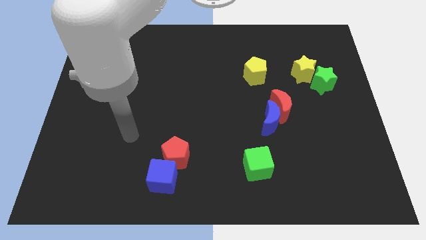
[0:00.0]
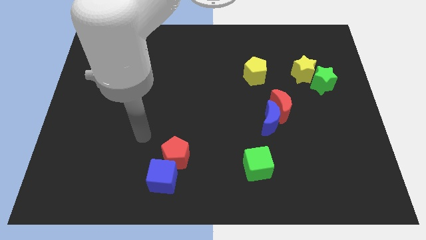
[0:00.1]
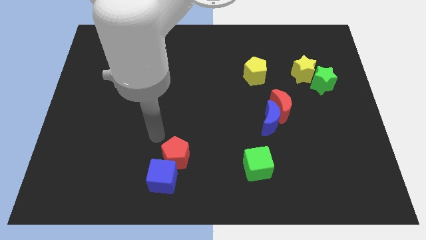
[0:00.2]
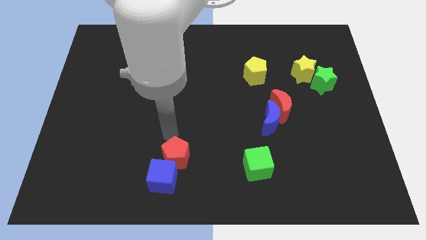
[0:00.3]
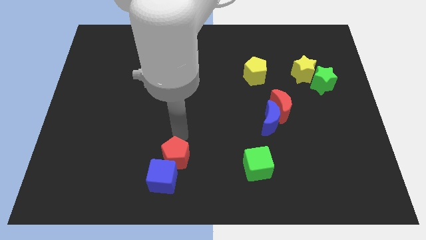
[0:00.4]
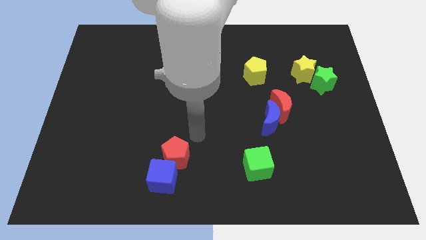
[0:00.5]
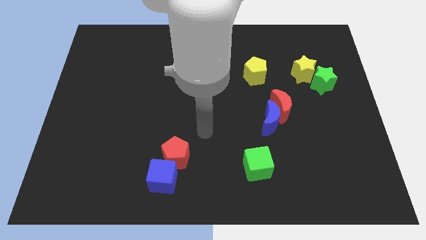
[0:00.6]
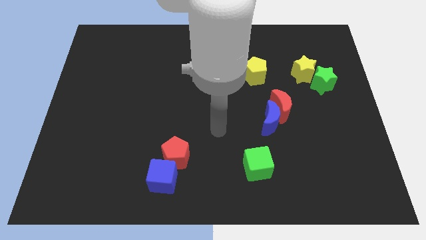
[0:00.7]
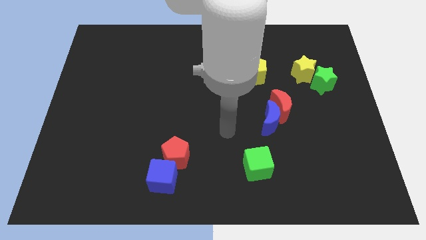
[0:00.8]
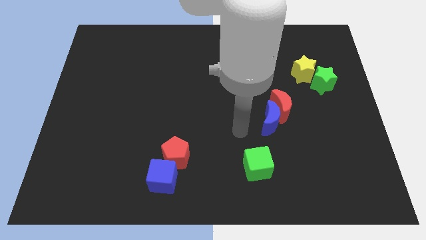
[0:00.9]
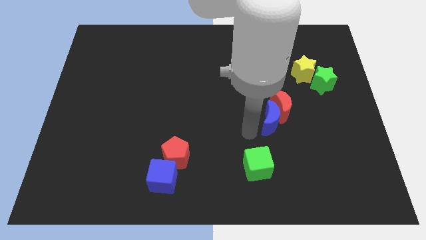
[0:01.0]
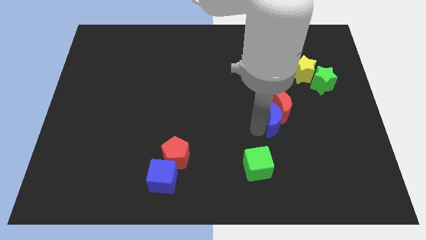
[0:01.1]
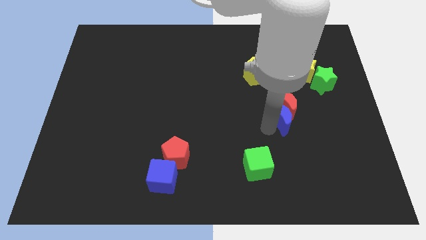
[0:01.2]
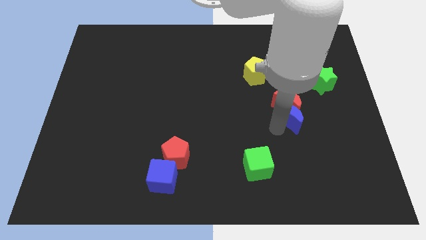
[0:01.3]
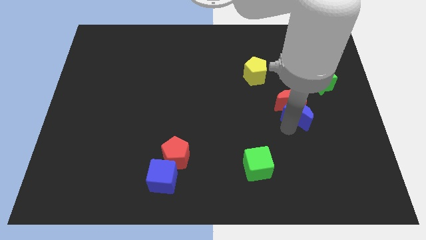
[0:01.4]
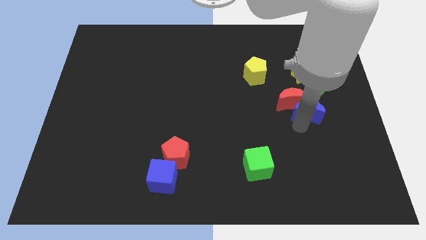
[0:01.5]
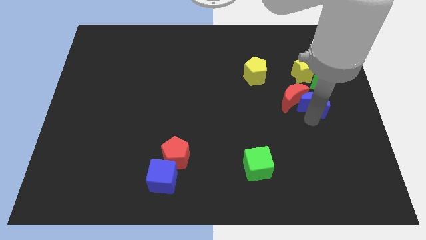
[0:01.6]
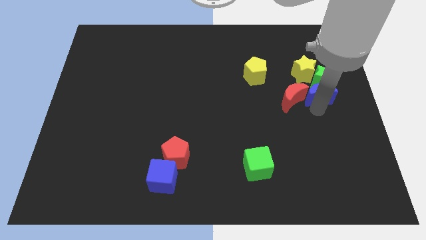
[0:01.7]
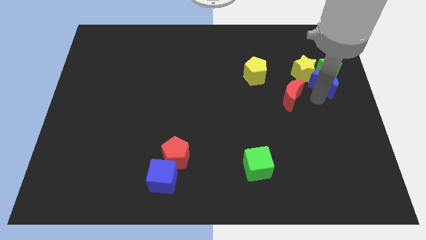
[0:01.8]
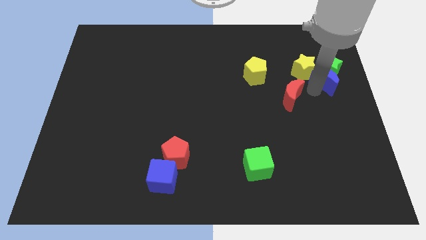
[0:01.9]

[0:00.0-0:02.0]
move the red moon away from the blue moon

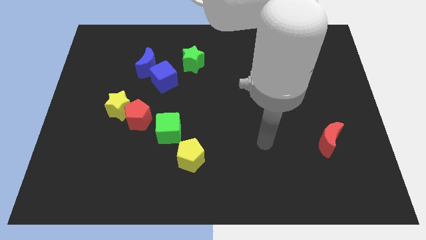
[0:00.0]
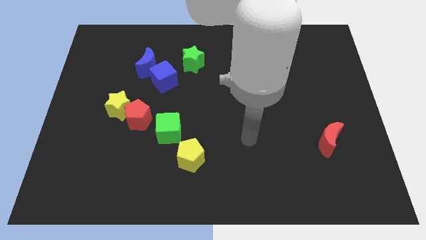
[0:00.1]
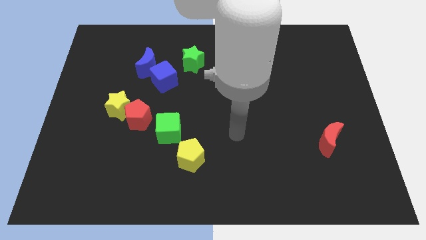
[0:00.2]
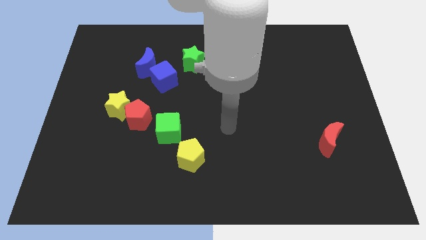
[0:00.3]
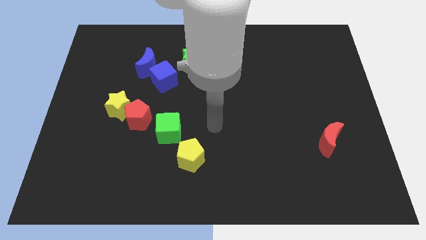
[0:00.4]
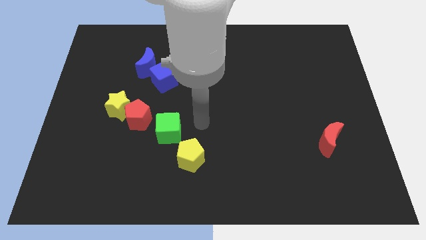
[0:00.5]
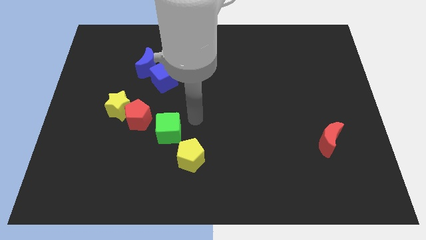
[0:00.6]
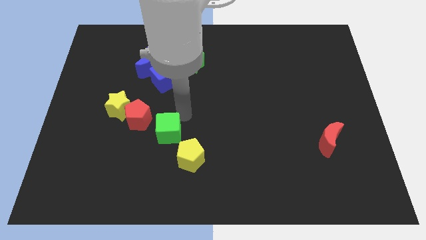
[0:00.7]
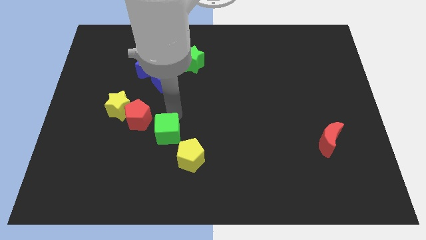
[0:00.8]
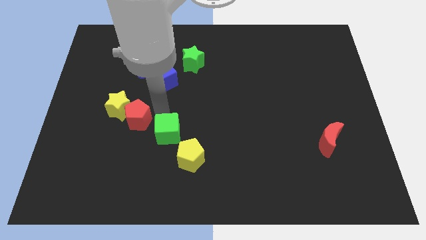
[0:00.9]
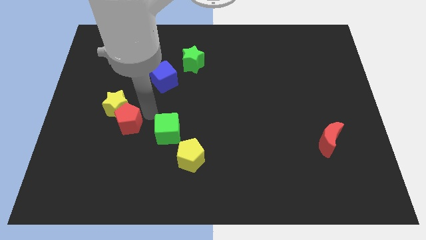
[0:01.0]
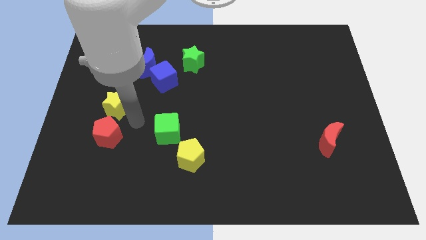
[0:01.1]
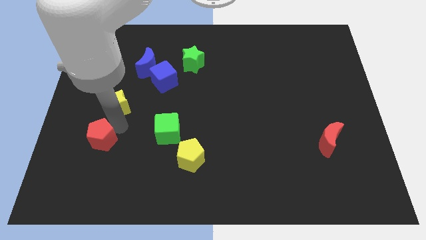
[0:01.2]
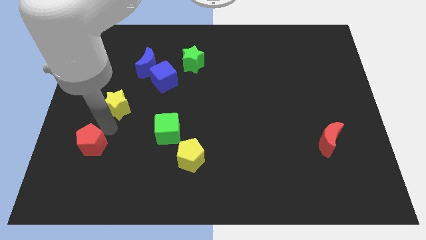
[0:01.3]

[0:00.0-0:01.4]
separate the yellow star from the red pentagon

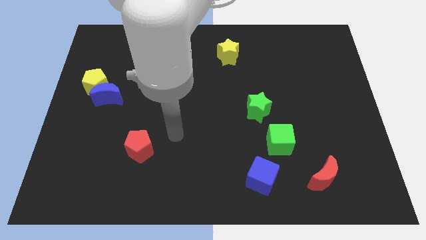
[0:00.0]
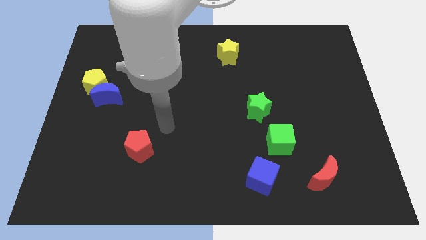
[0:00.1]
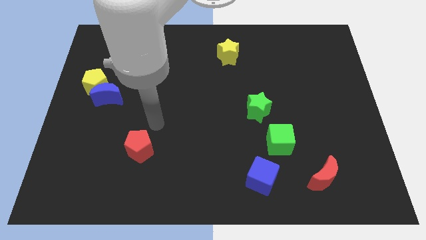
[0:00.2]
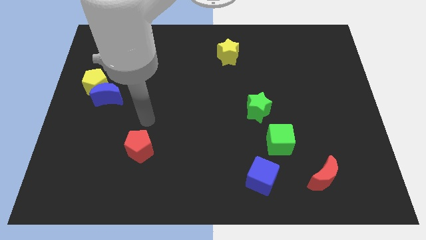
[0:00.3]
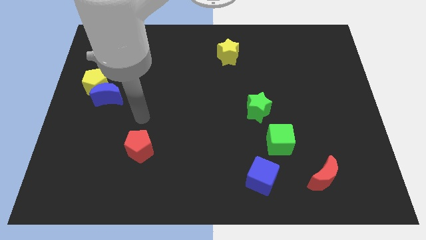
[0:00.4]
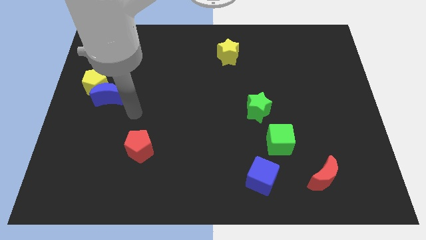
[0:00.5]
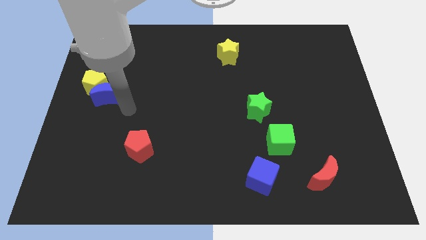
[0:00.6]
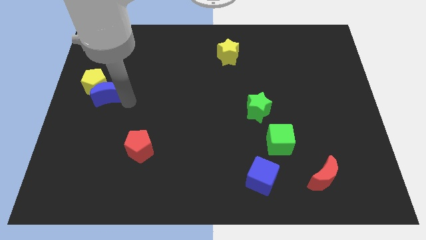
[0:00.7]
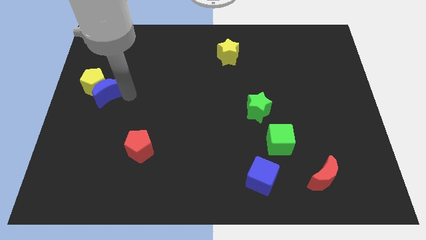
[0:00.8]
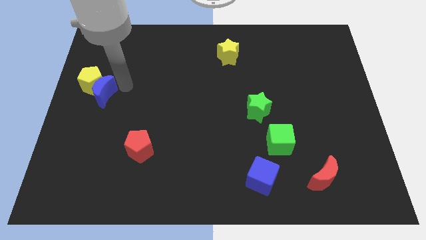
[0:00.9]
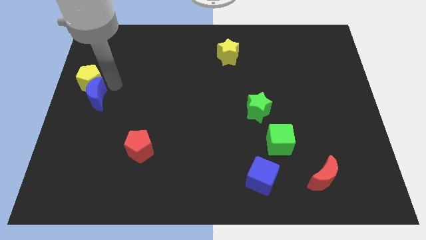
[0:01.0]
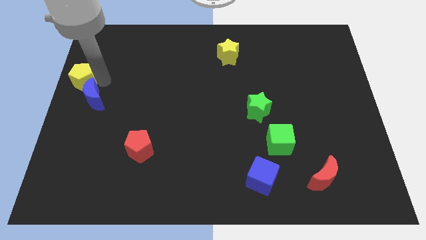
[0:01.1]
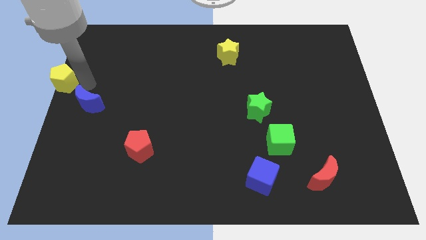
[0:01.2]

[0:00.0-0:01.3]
move the blue moon away from the yellow pentagon

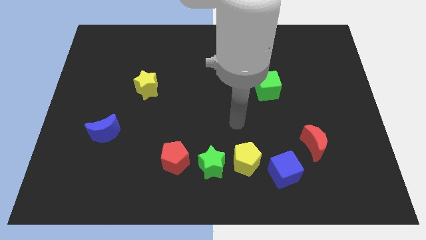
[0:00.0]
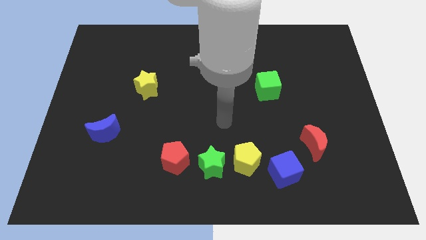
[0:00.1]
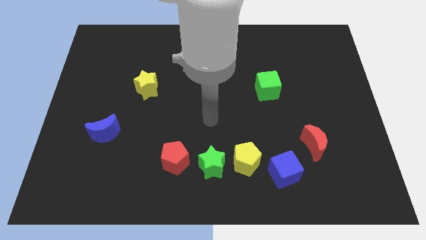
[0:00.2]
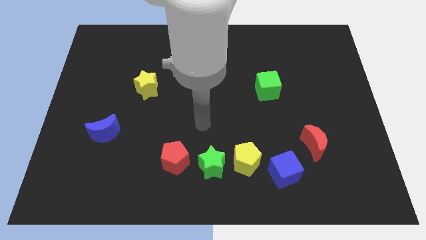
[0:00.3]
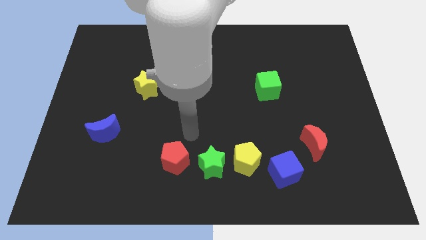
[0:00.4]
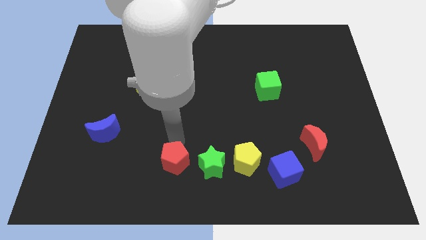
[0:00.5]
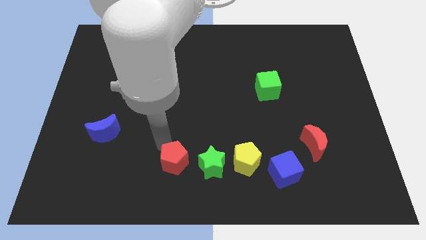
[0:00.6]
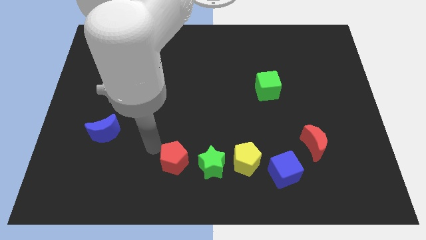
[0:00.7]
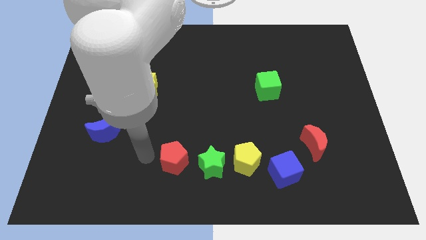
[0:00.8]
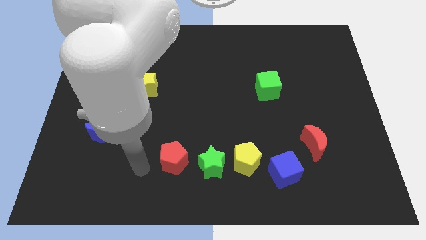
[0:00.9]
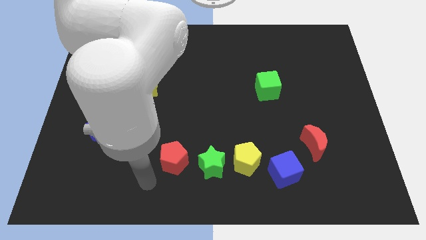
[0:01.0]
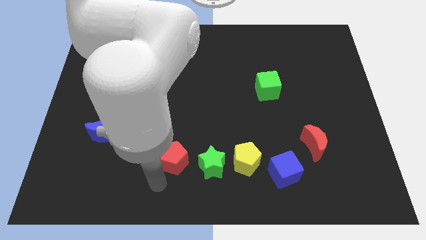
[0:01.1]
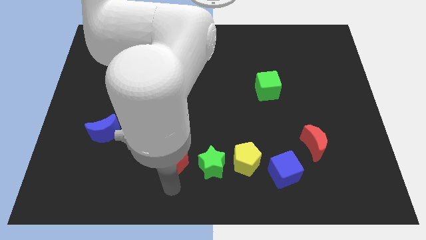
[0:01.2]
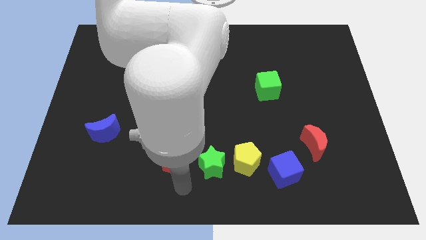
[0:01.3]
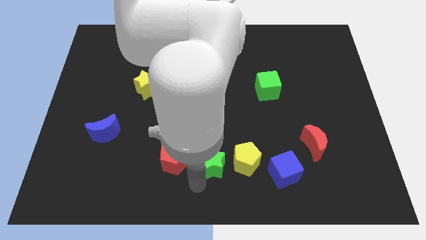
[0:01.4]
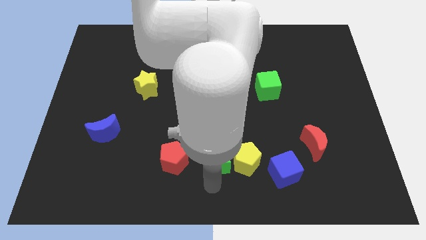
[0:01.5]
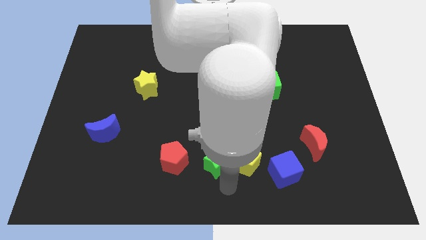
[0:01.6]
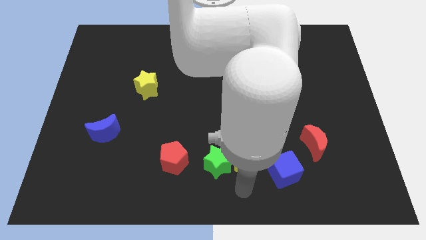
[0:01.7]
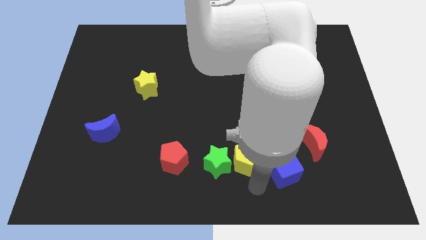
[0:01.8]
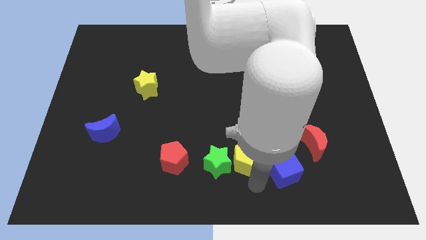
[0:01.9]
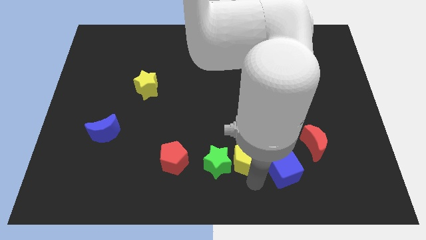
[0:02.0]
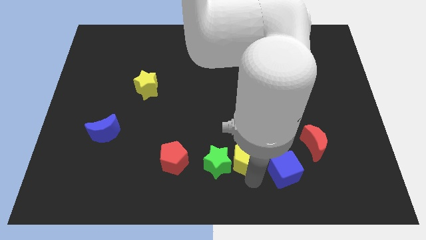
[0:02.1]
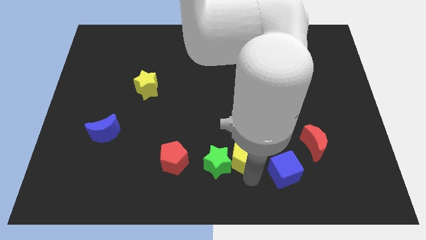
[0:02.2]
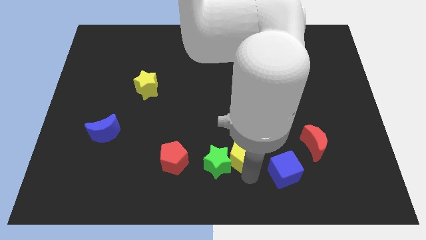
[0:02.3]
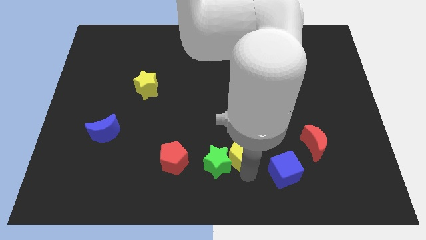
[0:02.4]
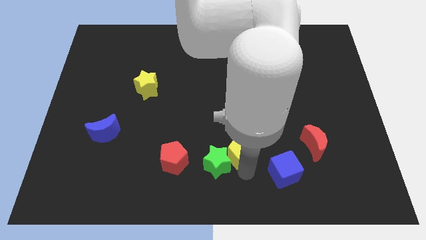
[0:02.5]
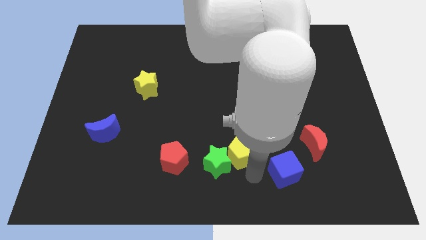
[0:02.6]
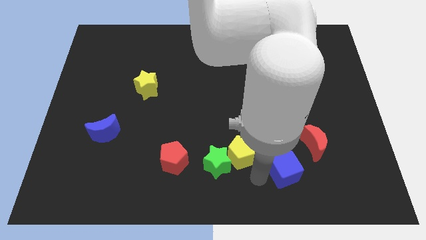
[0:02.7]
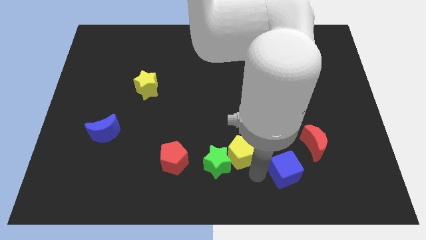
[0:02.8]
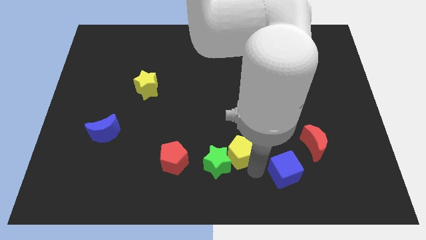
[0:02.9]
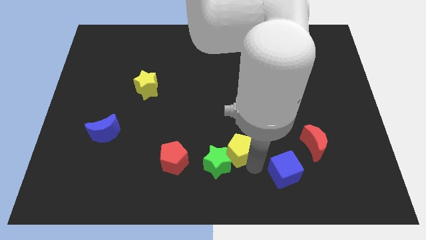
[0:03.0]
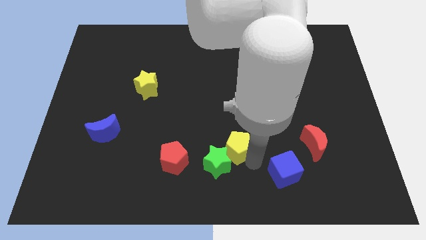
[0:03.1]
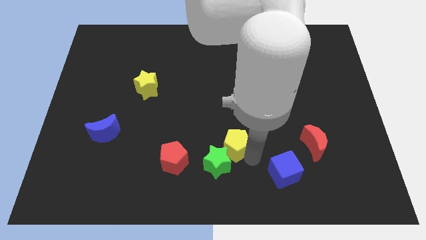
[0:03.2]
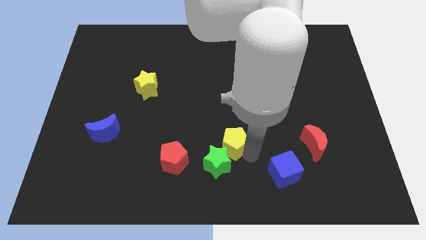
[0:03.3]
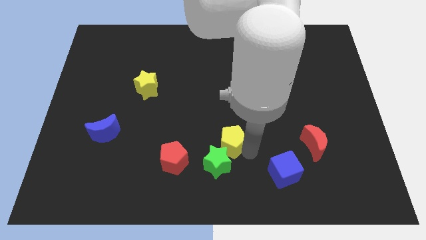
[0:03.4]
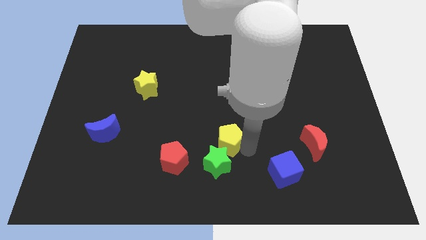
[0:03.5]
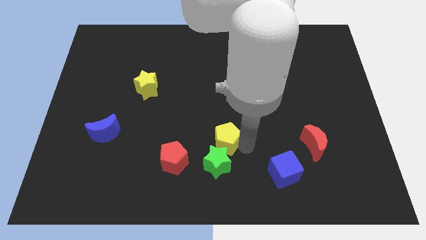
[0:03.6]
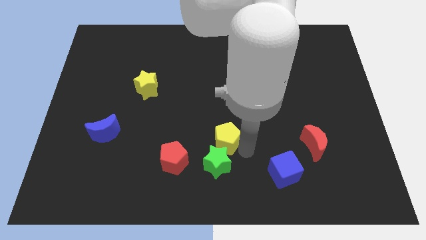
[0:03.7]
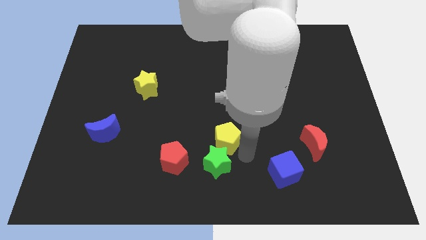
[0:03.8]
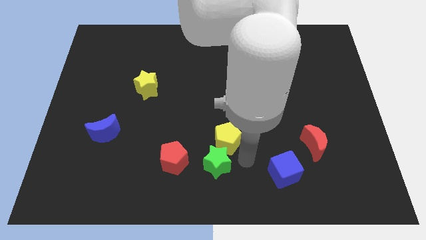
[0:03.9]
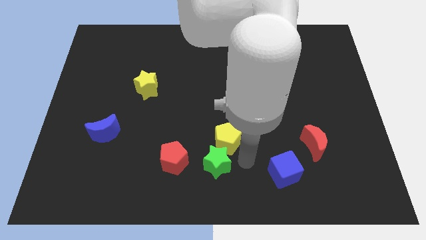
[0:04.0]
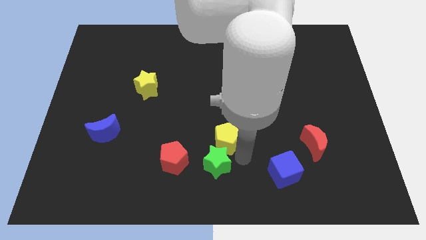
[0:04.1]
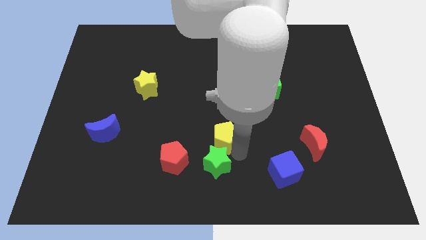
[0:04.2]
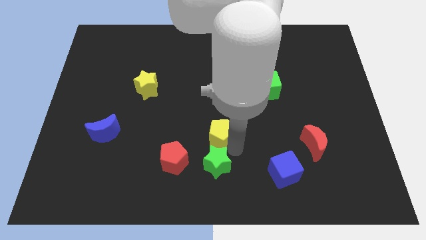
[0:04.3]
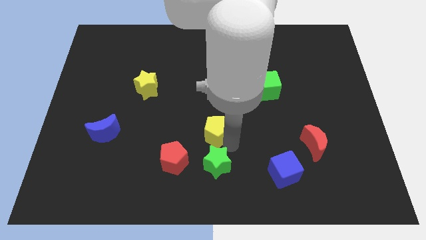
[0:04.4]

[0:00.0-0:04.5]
pull the yellow pentagon apart from the green star and blue cube
